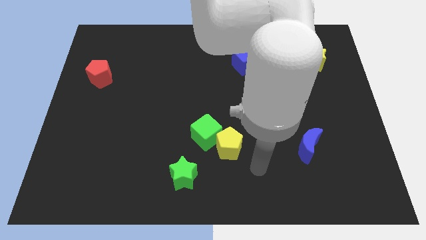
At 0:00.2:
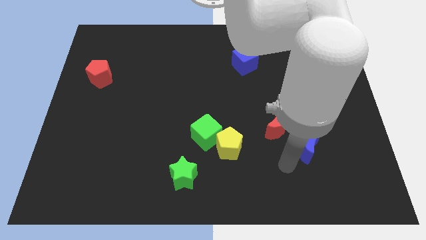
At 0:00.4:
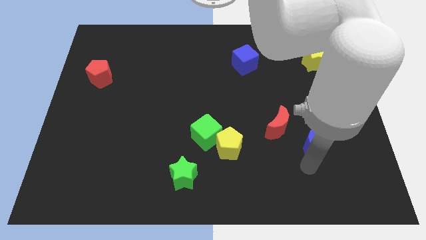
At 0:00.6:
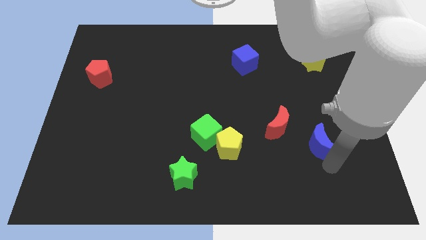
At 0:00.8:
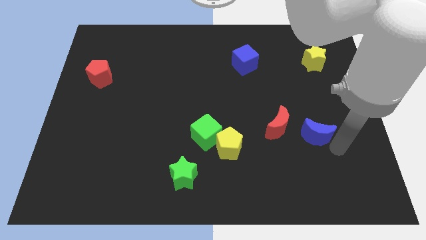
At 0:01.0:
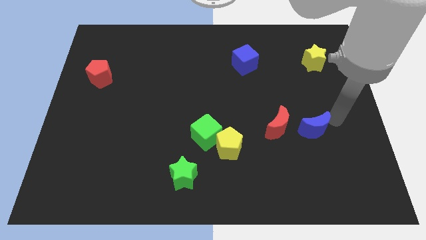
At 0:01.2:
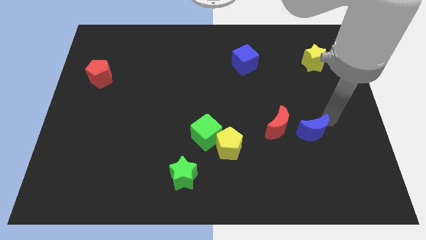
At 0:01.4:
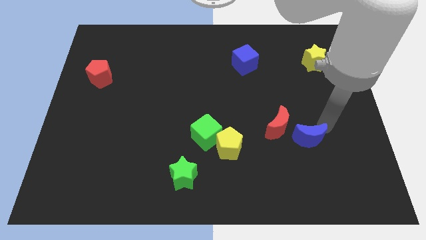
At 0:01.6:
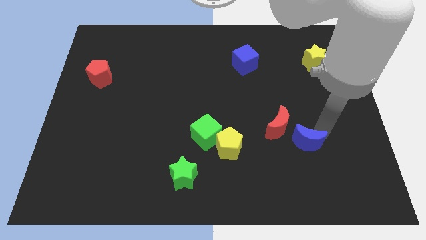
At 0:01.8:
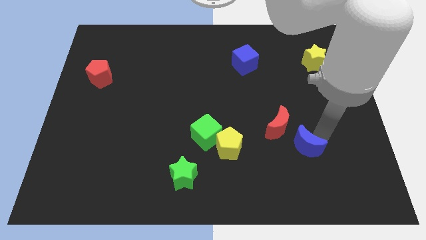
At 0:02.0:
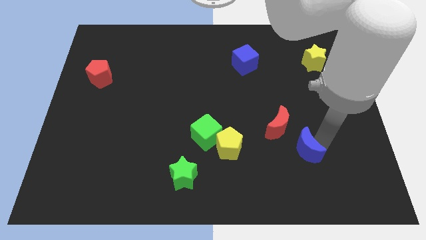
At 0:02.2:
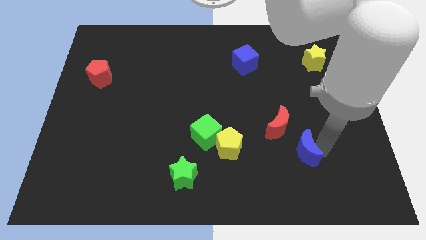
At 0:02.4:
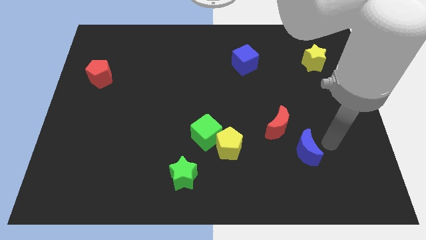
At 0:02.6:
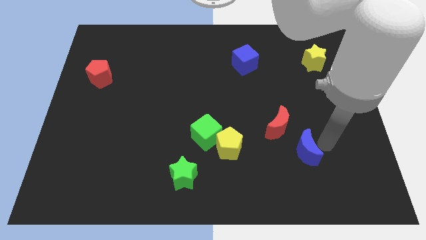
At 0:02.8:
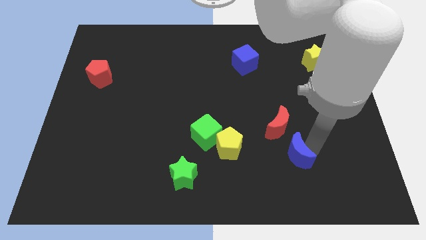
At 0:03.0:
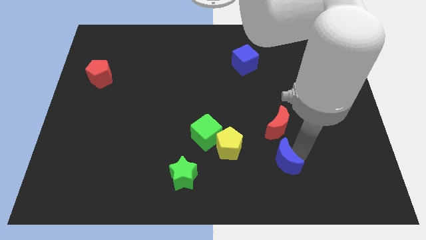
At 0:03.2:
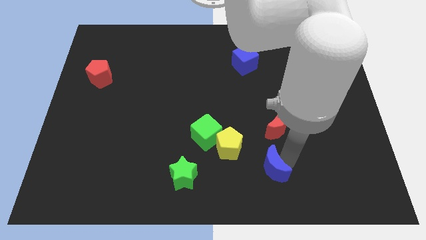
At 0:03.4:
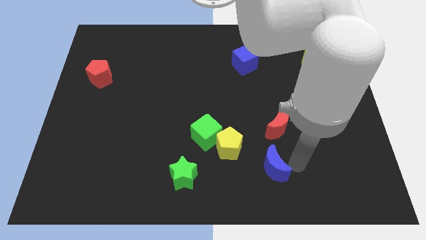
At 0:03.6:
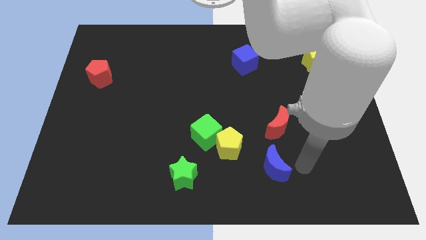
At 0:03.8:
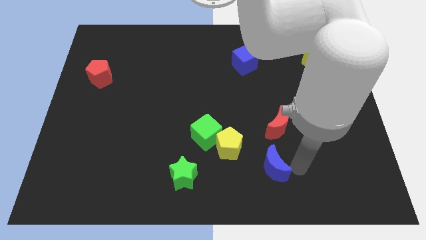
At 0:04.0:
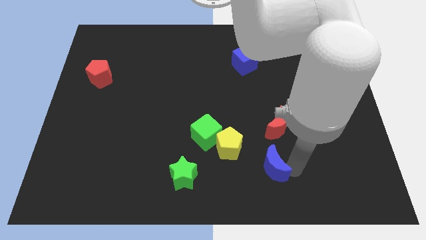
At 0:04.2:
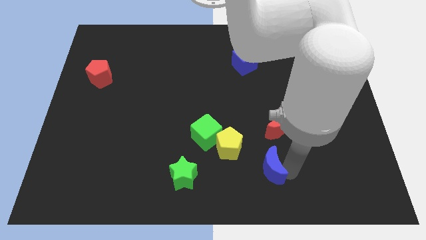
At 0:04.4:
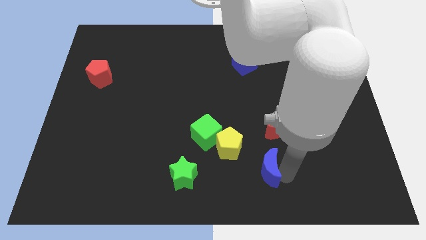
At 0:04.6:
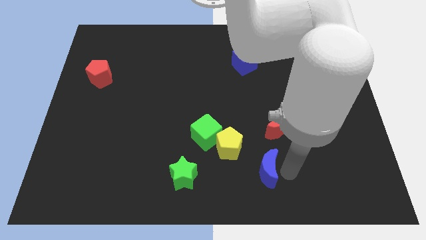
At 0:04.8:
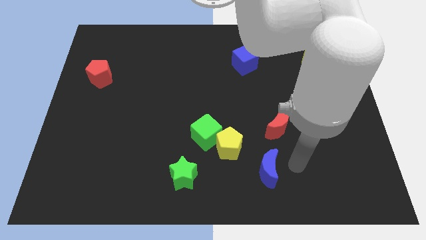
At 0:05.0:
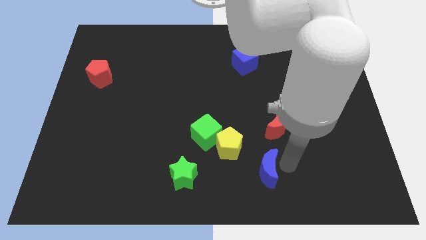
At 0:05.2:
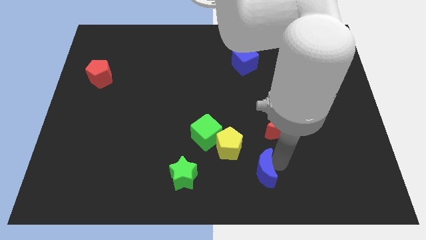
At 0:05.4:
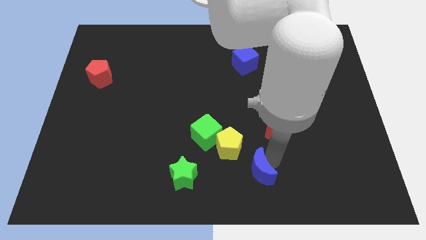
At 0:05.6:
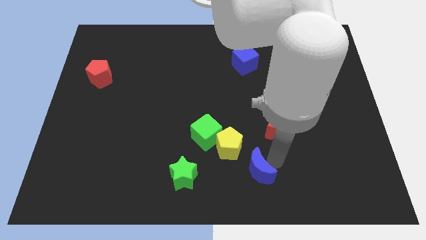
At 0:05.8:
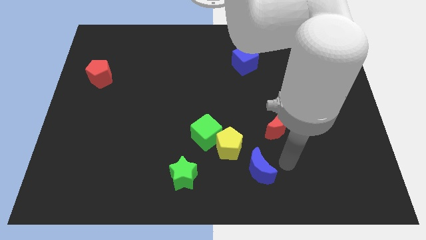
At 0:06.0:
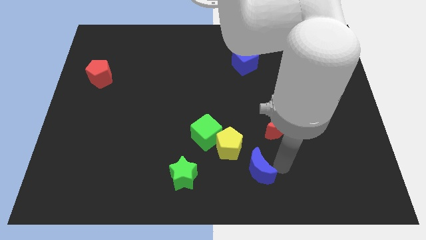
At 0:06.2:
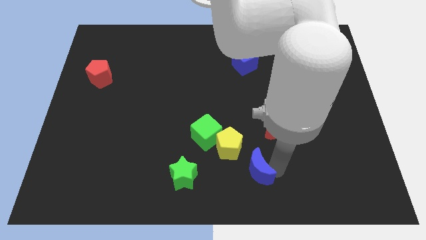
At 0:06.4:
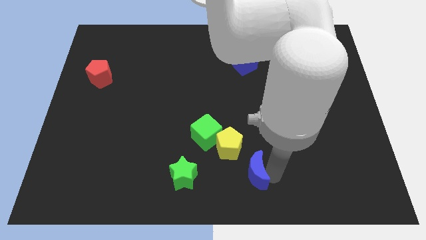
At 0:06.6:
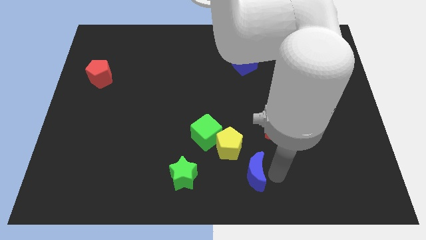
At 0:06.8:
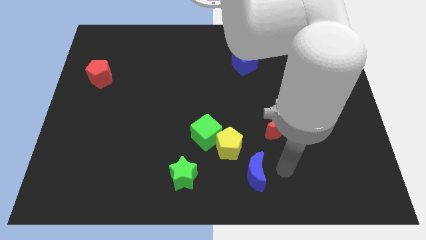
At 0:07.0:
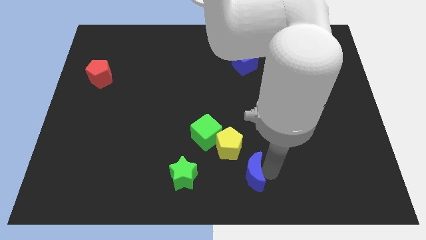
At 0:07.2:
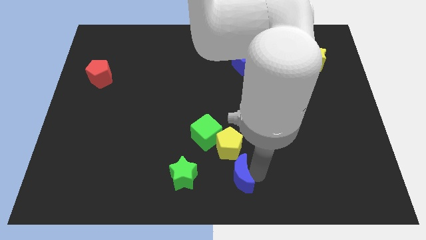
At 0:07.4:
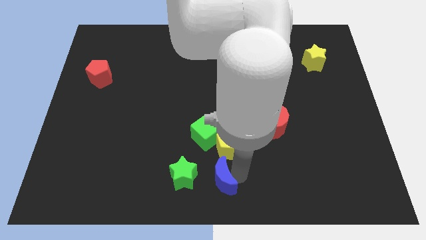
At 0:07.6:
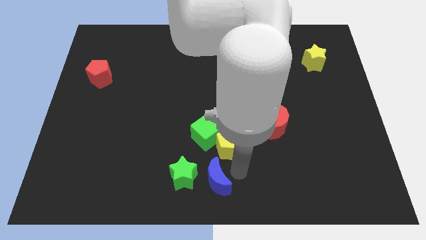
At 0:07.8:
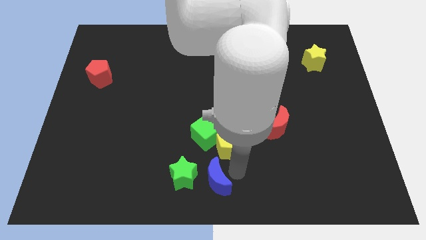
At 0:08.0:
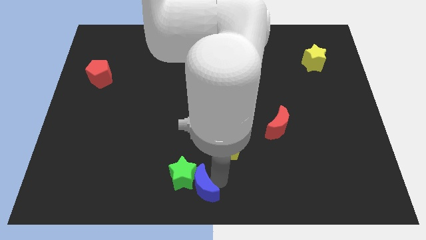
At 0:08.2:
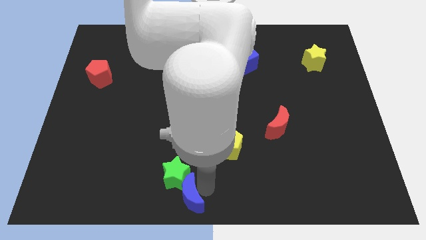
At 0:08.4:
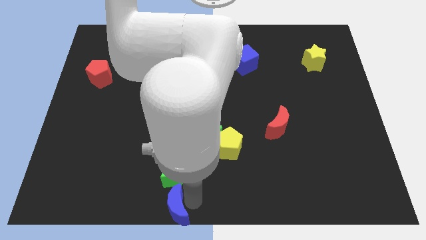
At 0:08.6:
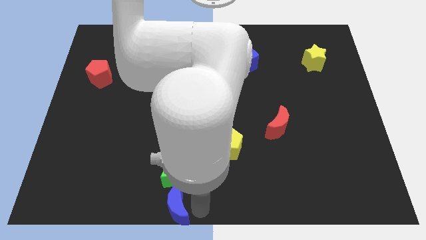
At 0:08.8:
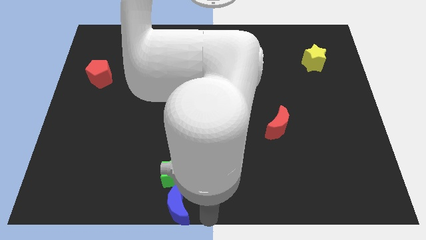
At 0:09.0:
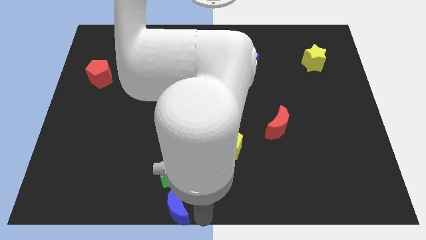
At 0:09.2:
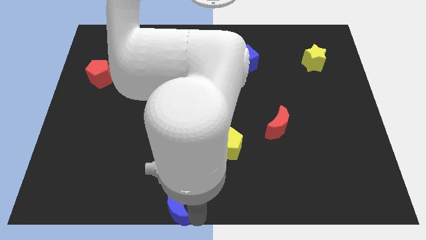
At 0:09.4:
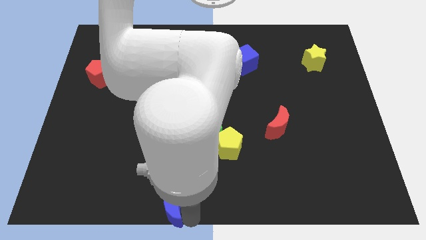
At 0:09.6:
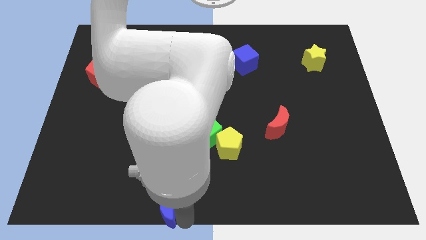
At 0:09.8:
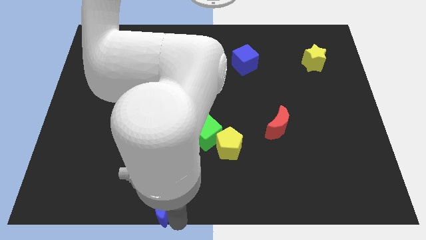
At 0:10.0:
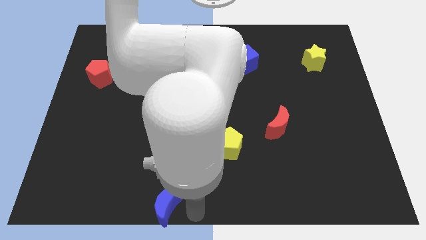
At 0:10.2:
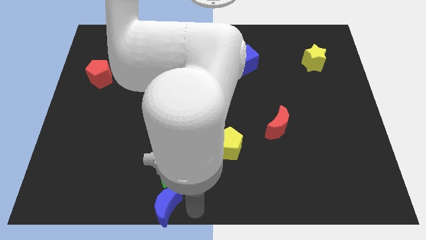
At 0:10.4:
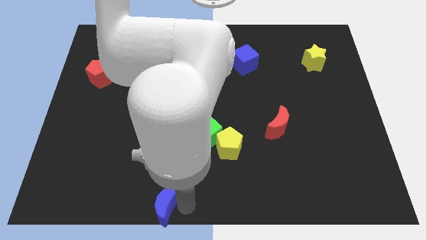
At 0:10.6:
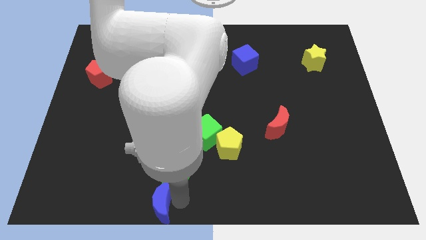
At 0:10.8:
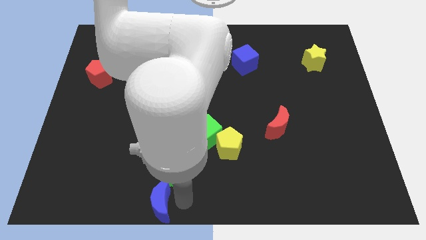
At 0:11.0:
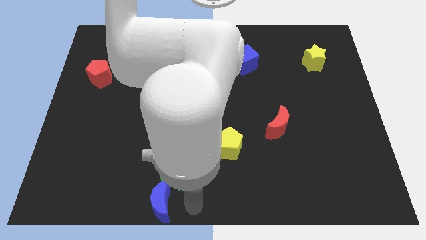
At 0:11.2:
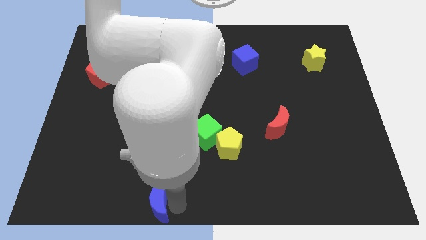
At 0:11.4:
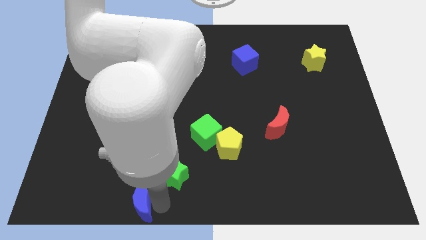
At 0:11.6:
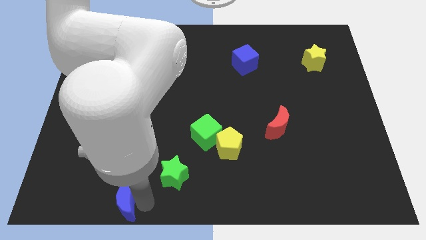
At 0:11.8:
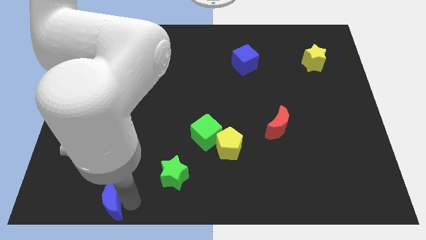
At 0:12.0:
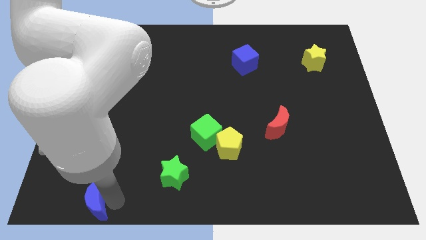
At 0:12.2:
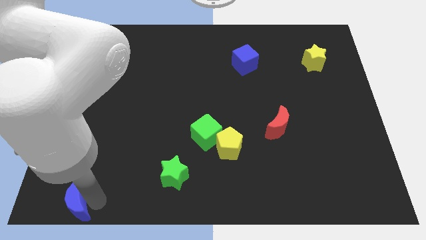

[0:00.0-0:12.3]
push the blue moon to the bottom left of the board
